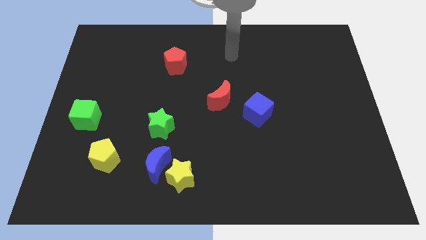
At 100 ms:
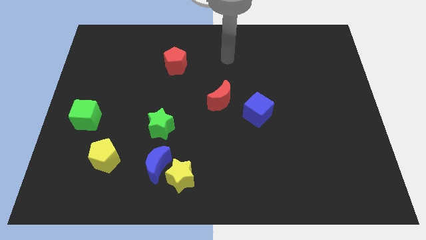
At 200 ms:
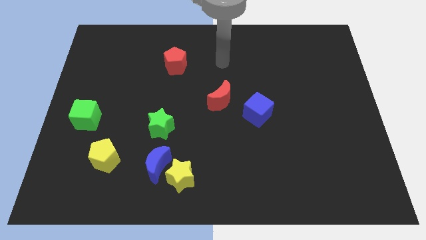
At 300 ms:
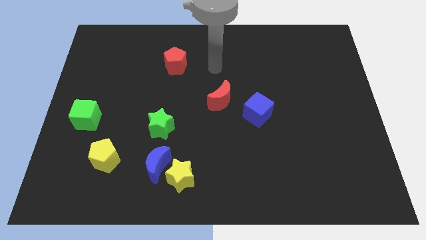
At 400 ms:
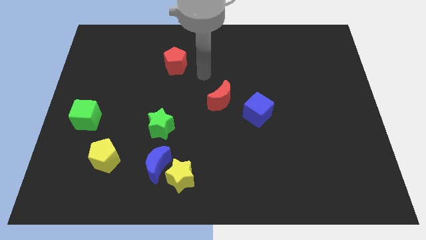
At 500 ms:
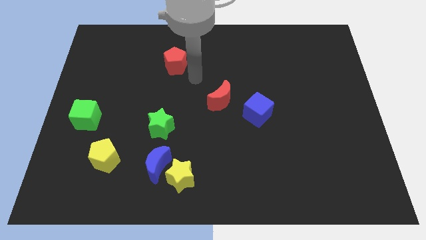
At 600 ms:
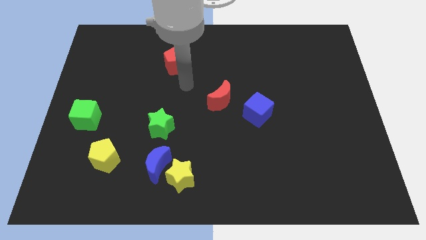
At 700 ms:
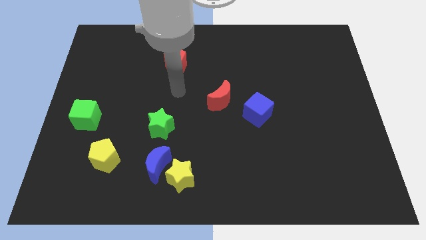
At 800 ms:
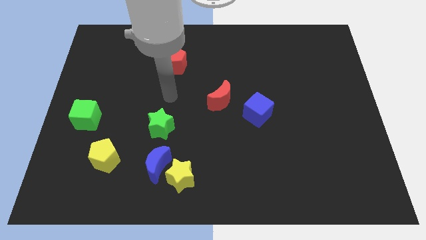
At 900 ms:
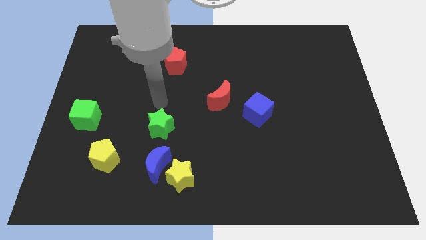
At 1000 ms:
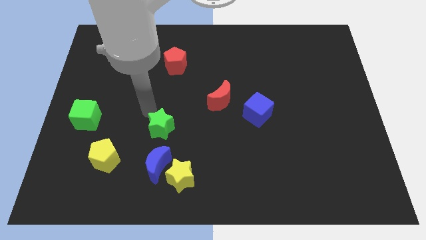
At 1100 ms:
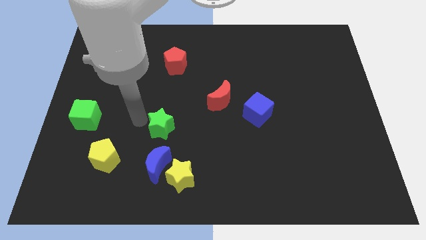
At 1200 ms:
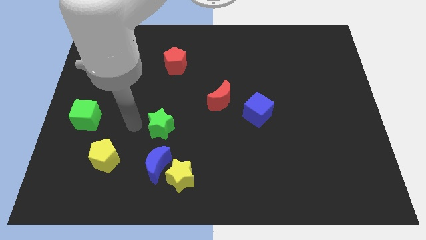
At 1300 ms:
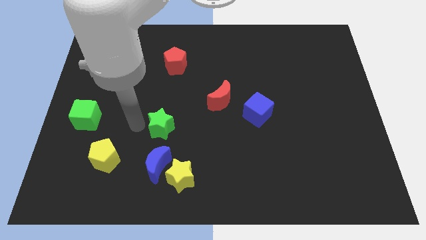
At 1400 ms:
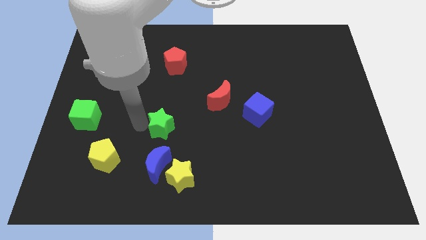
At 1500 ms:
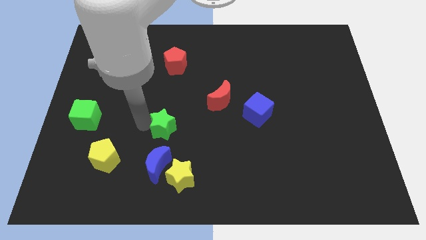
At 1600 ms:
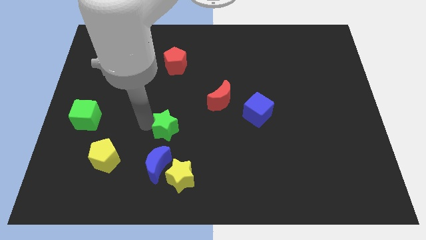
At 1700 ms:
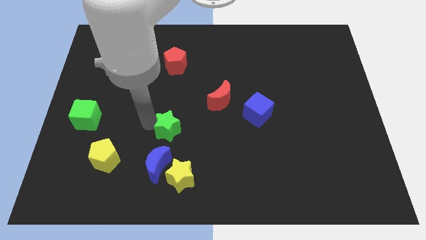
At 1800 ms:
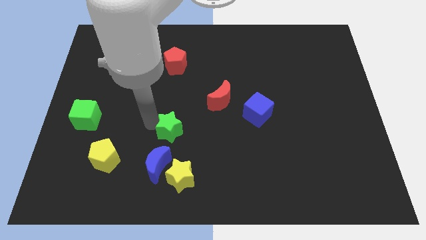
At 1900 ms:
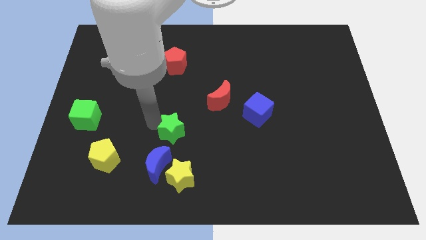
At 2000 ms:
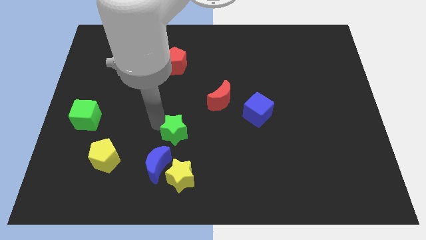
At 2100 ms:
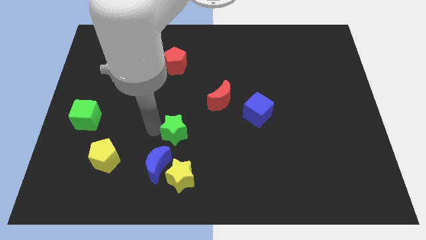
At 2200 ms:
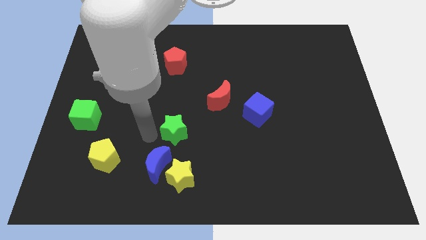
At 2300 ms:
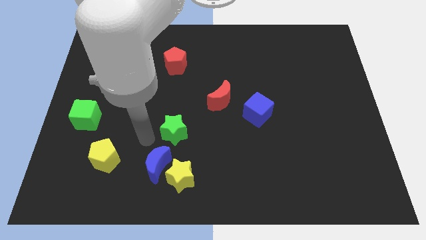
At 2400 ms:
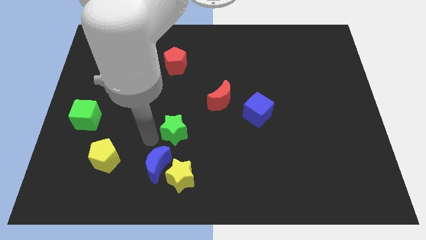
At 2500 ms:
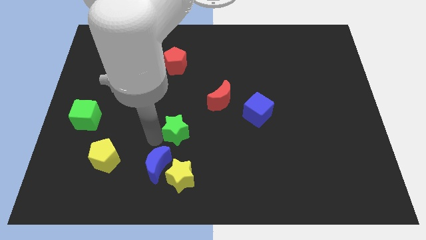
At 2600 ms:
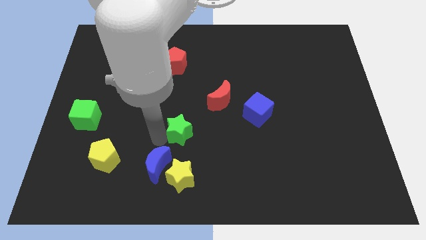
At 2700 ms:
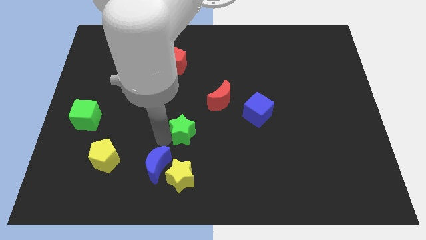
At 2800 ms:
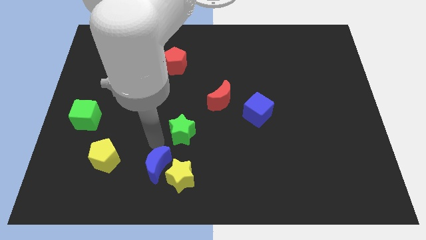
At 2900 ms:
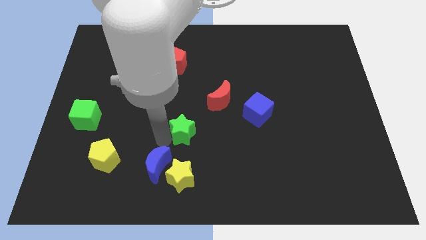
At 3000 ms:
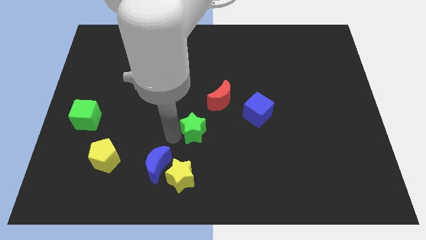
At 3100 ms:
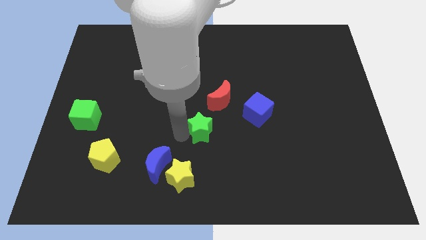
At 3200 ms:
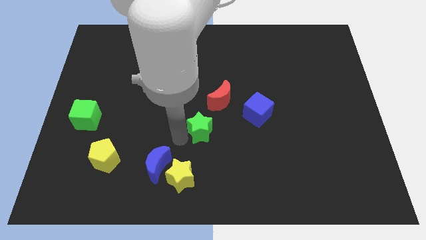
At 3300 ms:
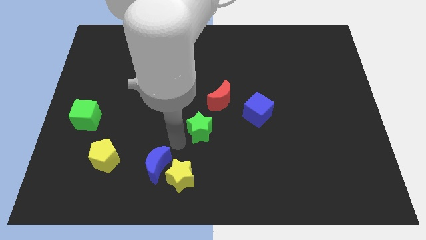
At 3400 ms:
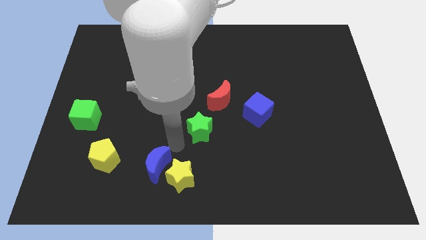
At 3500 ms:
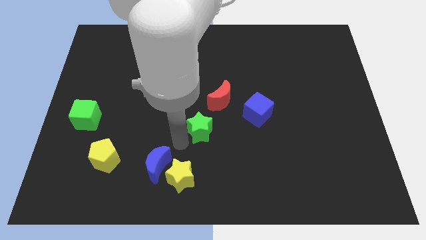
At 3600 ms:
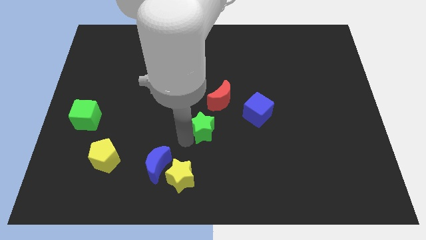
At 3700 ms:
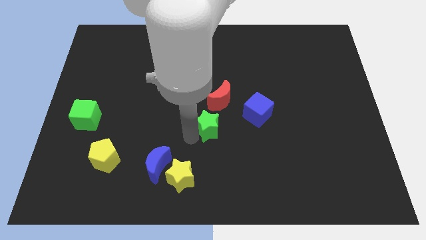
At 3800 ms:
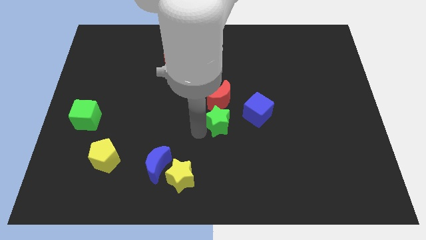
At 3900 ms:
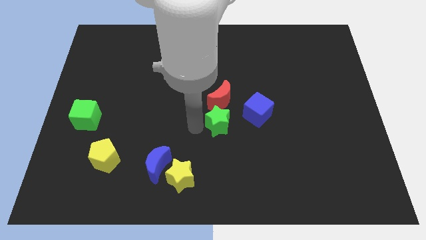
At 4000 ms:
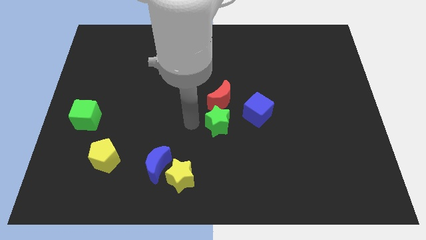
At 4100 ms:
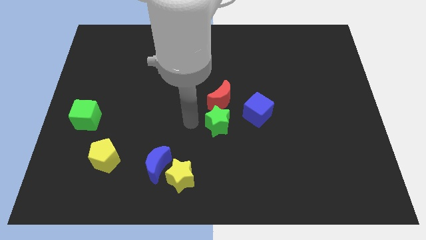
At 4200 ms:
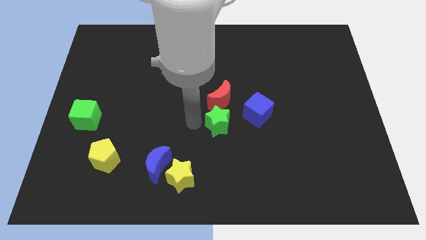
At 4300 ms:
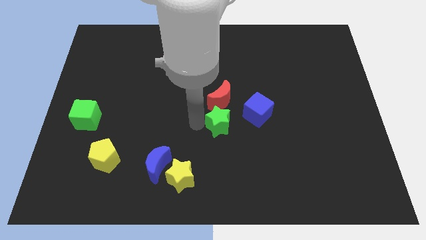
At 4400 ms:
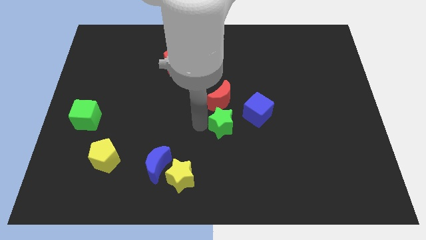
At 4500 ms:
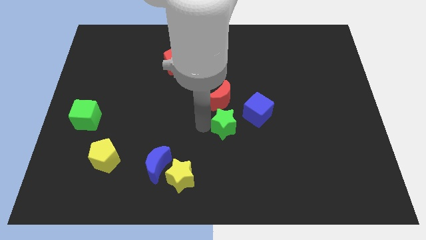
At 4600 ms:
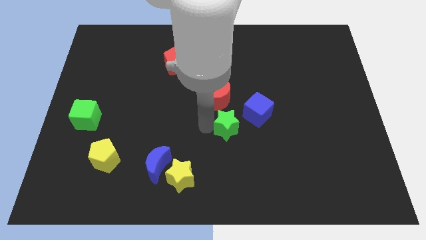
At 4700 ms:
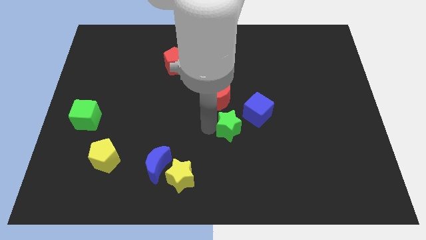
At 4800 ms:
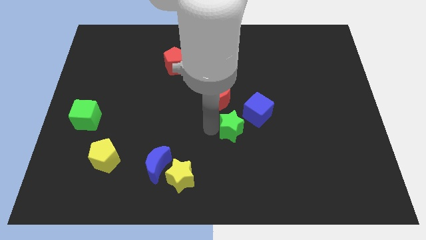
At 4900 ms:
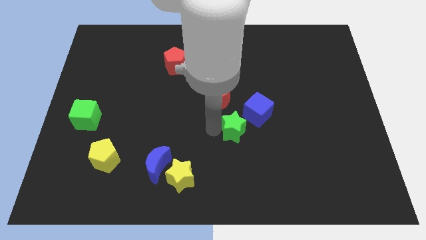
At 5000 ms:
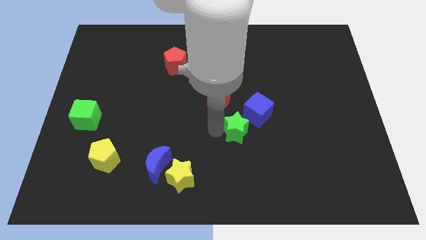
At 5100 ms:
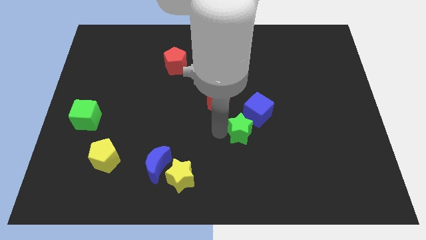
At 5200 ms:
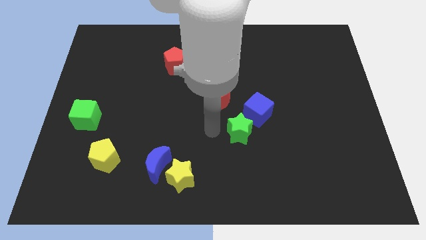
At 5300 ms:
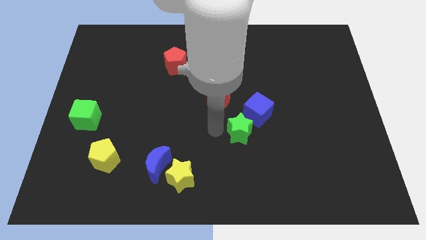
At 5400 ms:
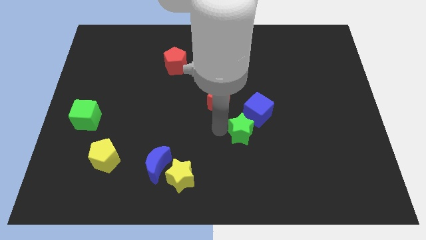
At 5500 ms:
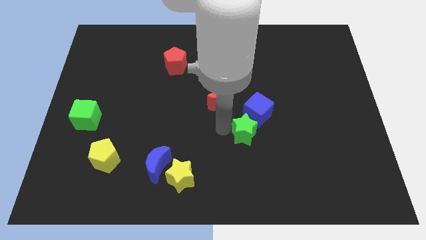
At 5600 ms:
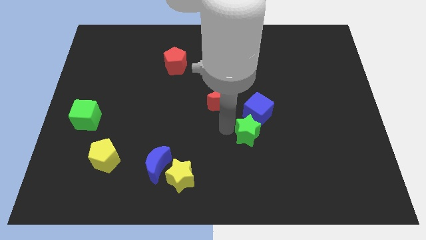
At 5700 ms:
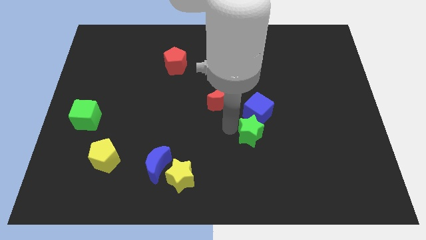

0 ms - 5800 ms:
slide the green star right

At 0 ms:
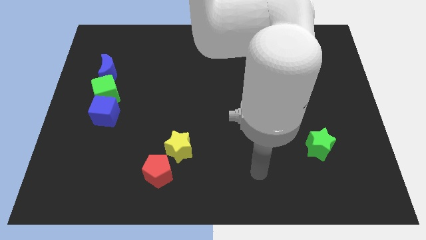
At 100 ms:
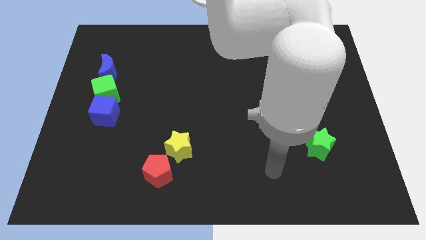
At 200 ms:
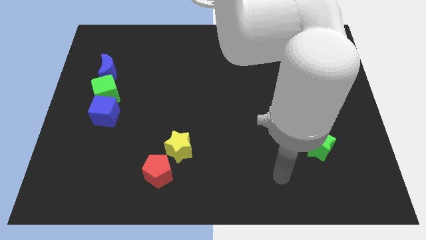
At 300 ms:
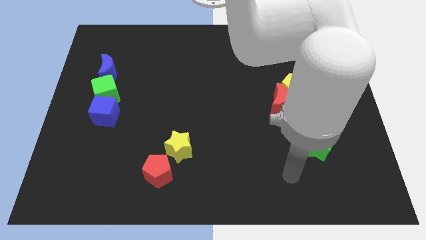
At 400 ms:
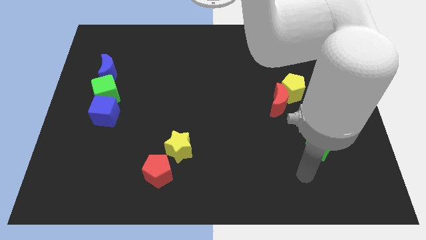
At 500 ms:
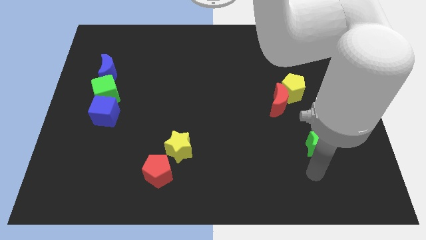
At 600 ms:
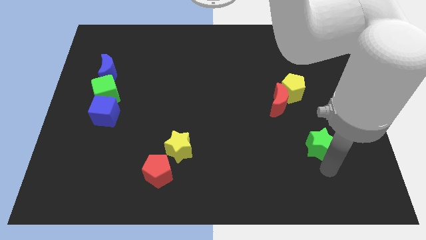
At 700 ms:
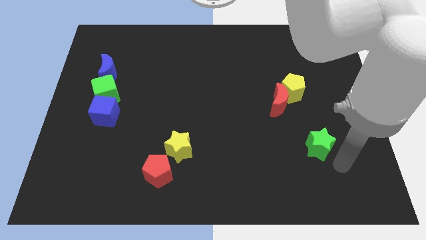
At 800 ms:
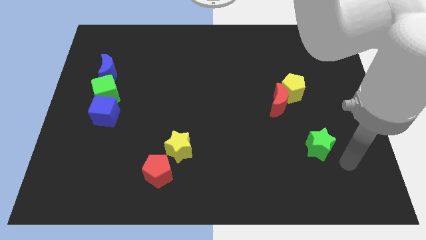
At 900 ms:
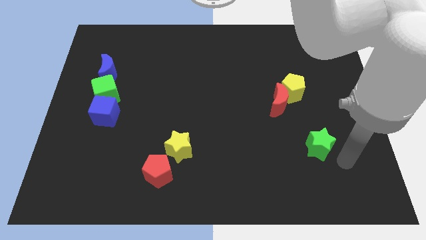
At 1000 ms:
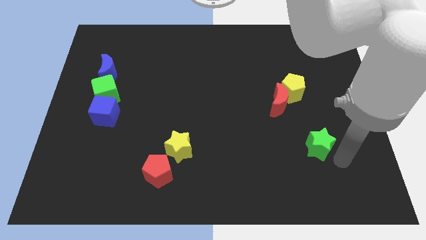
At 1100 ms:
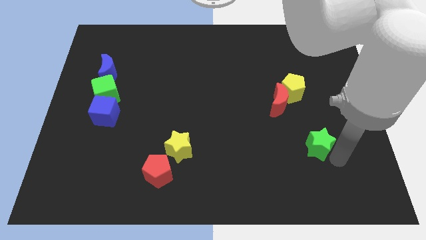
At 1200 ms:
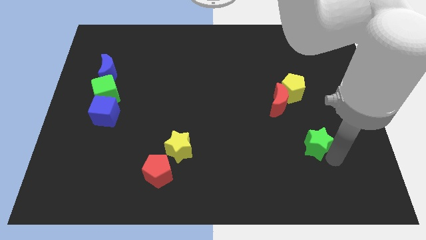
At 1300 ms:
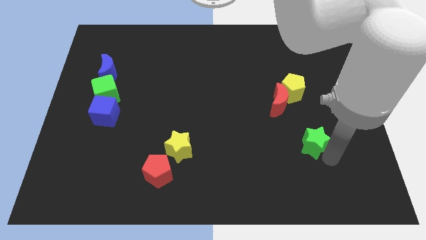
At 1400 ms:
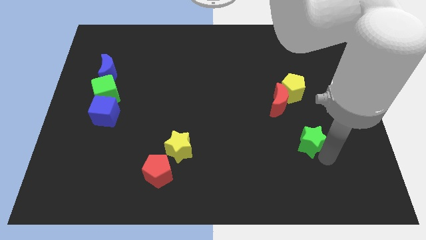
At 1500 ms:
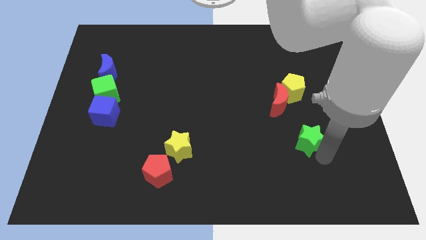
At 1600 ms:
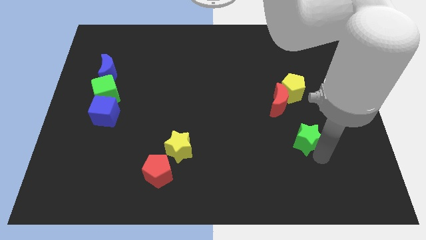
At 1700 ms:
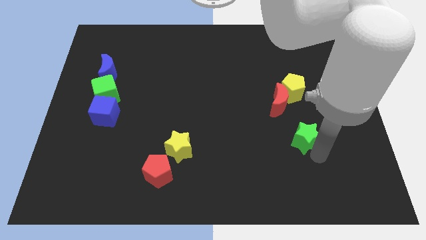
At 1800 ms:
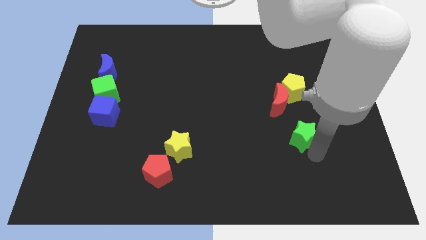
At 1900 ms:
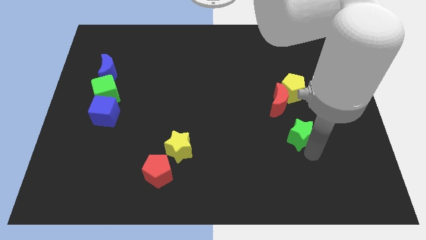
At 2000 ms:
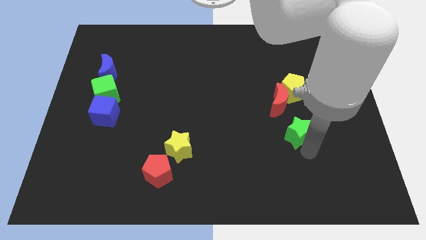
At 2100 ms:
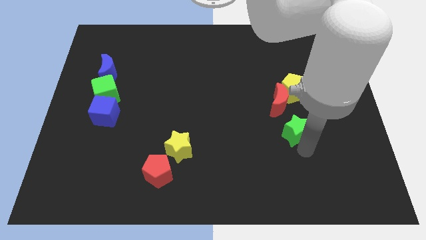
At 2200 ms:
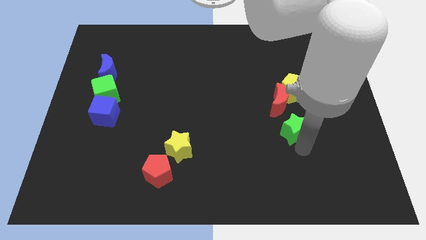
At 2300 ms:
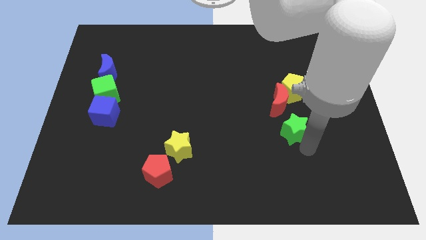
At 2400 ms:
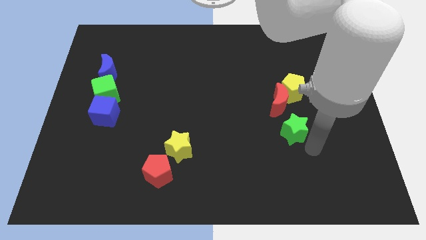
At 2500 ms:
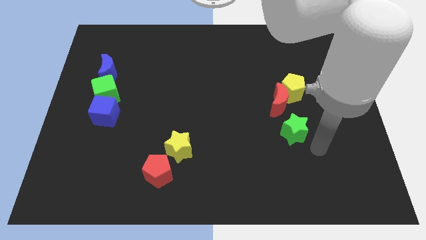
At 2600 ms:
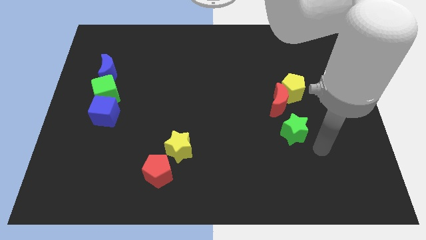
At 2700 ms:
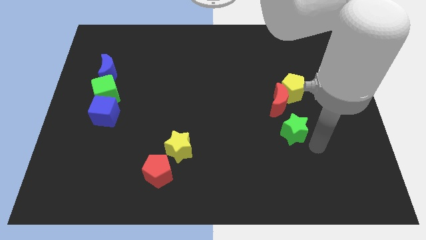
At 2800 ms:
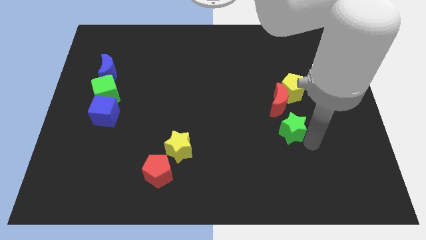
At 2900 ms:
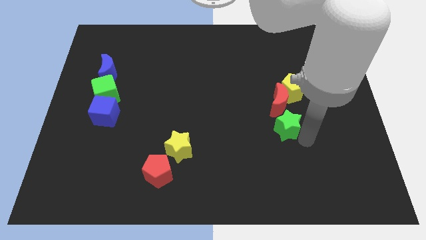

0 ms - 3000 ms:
slide the green star slightly upwards and then to the left
